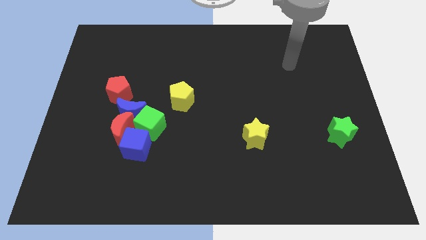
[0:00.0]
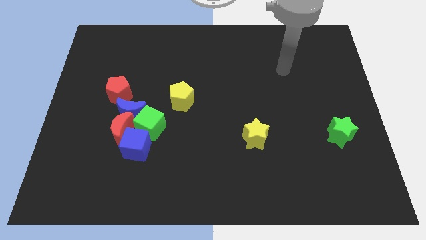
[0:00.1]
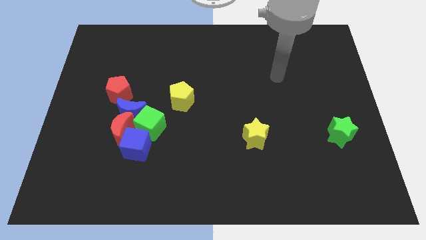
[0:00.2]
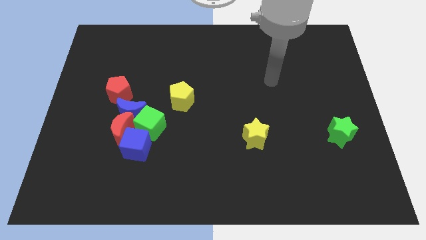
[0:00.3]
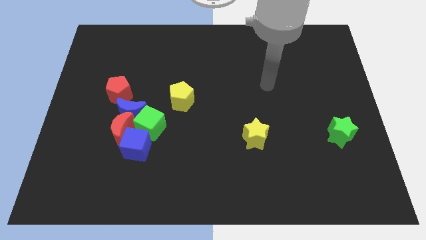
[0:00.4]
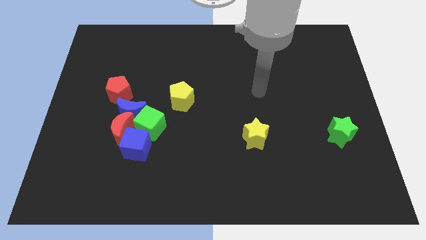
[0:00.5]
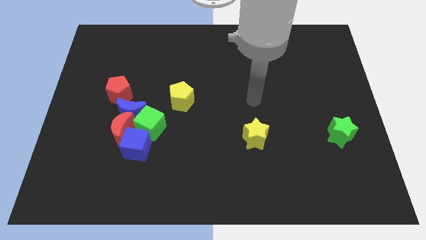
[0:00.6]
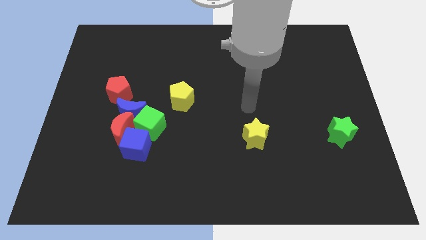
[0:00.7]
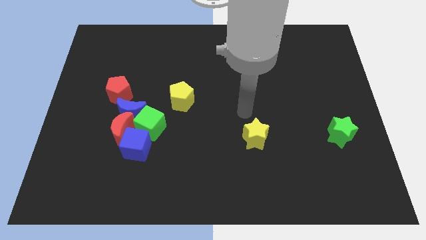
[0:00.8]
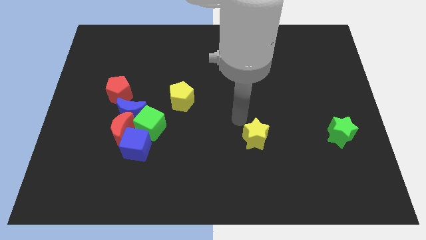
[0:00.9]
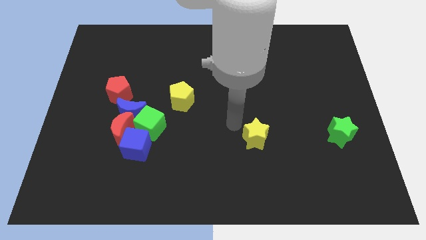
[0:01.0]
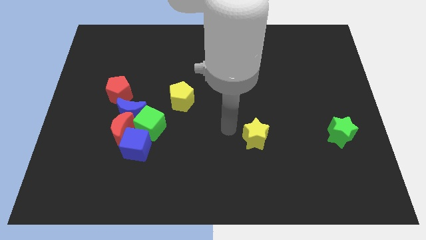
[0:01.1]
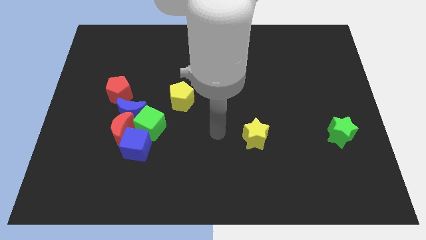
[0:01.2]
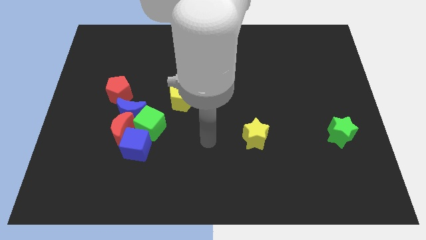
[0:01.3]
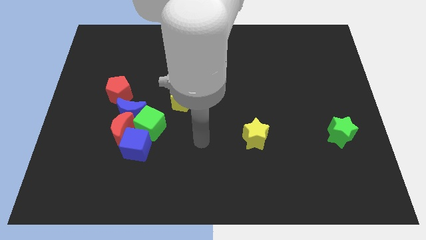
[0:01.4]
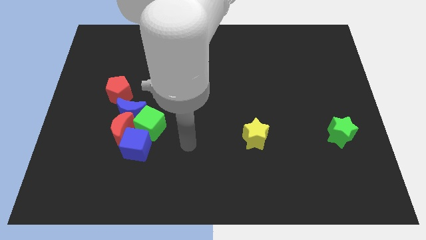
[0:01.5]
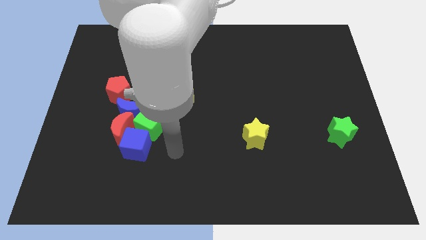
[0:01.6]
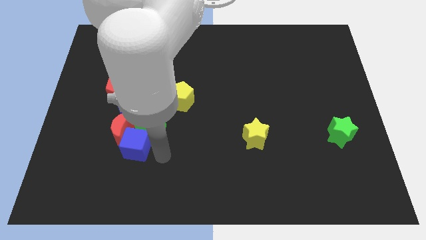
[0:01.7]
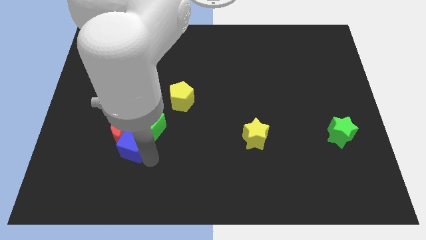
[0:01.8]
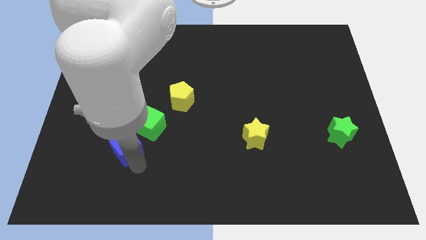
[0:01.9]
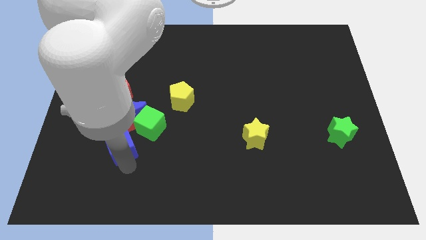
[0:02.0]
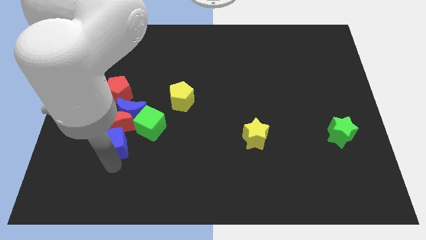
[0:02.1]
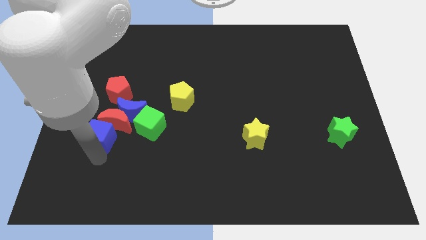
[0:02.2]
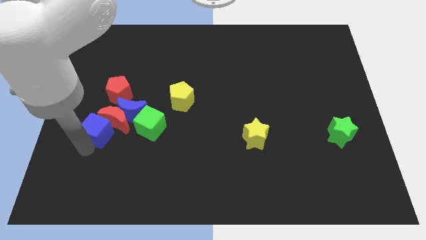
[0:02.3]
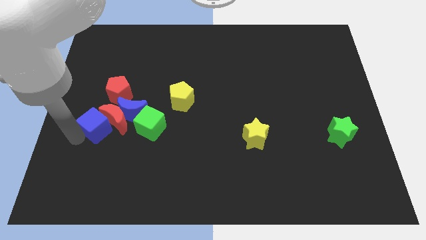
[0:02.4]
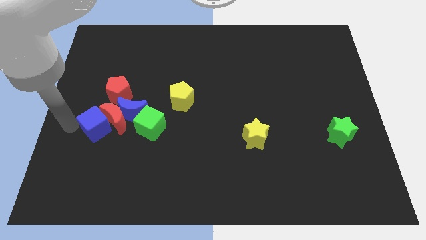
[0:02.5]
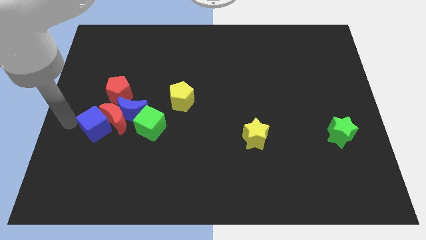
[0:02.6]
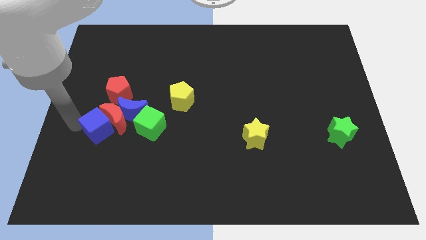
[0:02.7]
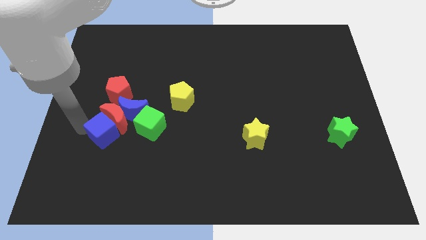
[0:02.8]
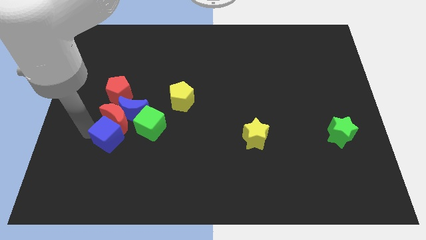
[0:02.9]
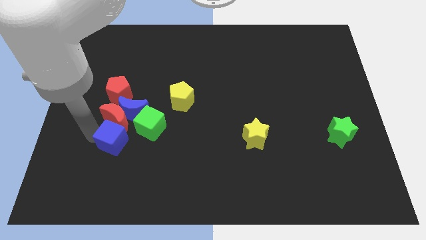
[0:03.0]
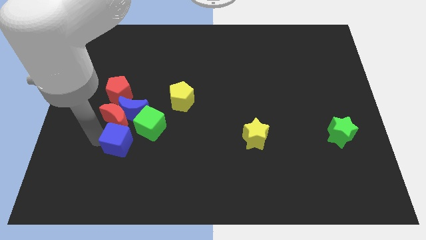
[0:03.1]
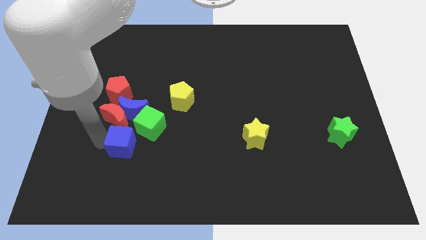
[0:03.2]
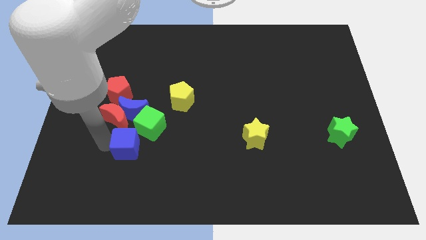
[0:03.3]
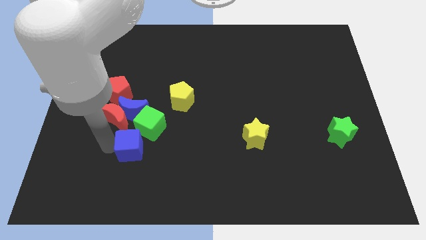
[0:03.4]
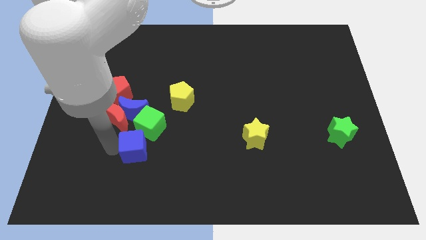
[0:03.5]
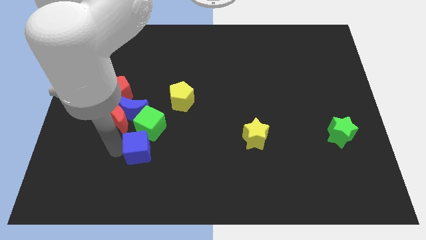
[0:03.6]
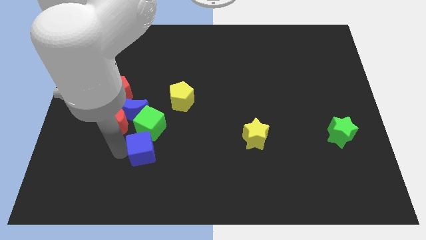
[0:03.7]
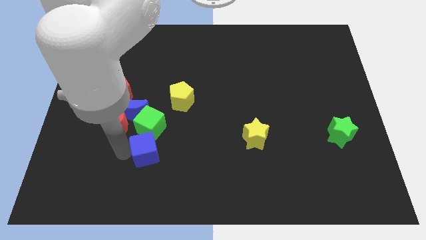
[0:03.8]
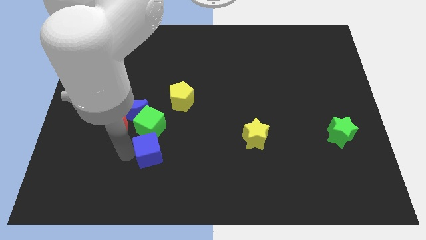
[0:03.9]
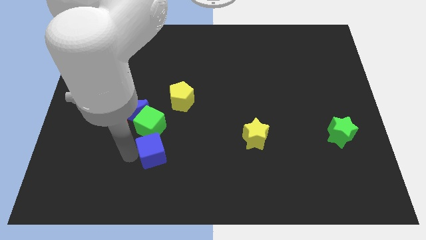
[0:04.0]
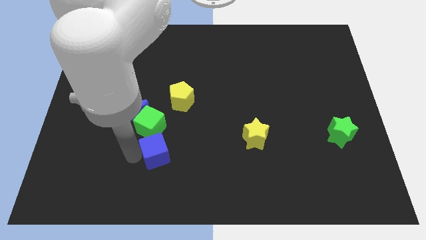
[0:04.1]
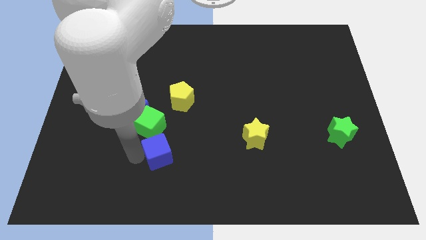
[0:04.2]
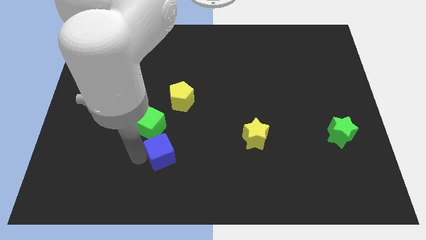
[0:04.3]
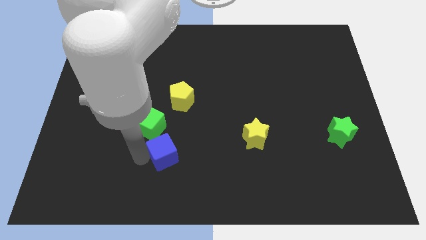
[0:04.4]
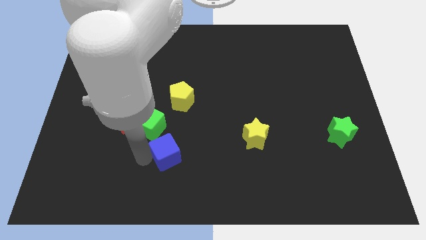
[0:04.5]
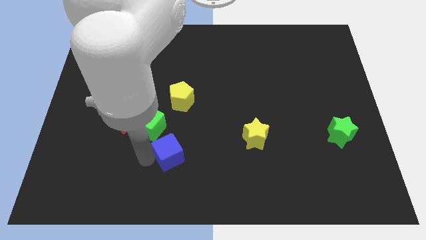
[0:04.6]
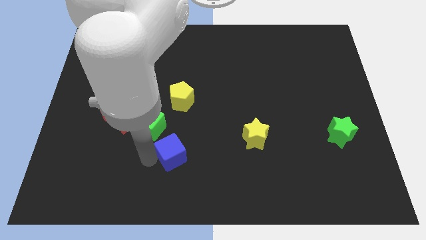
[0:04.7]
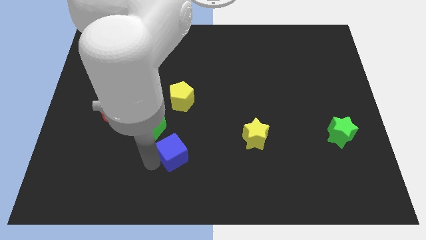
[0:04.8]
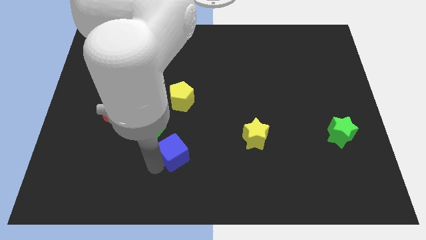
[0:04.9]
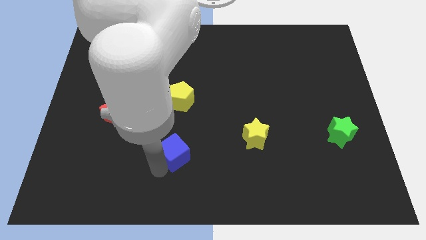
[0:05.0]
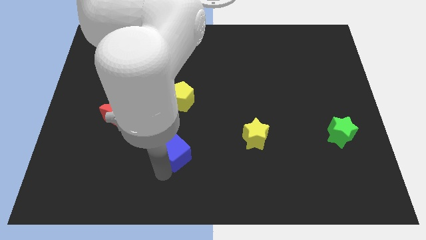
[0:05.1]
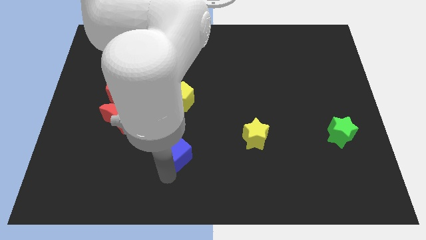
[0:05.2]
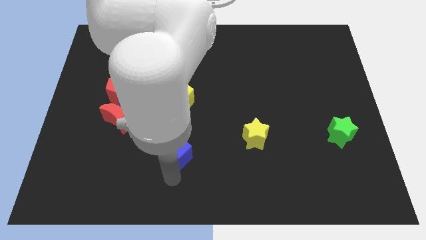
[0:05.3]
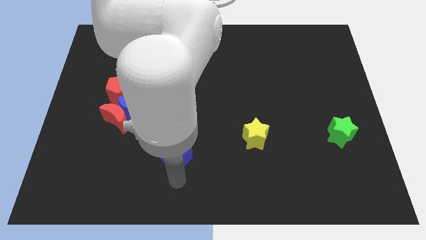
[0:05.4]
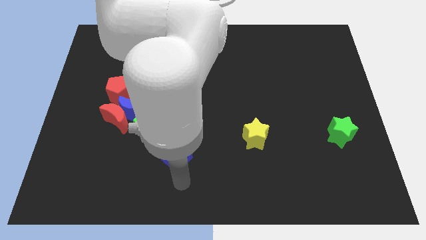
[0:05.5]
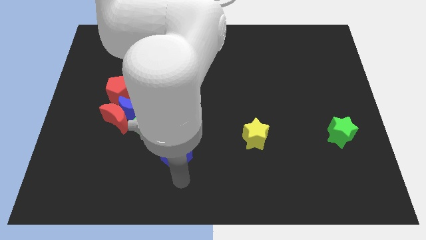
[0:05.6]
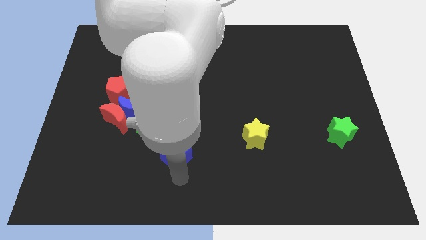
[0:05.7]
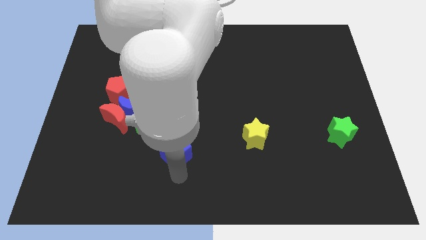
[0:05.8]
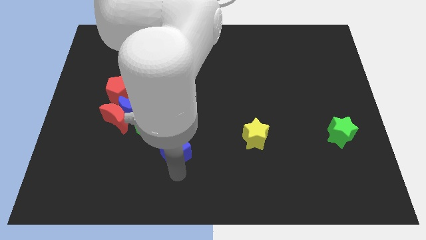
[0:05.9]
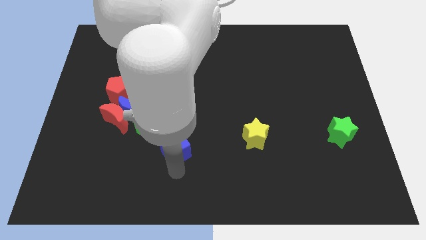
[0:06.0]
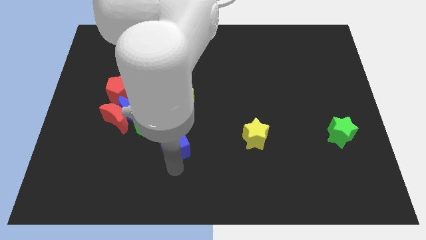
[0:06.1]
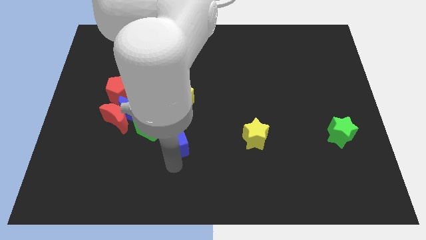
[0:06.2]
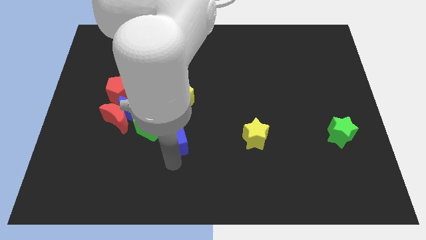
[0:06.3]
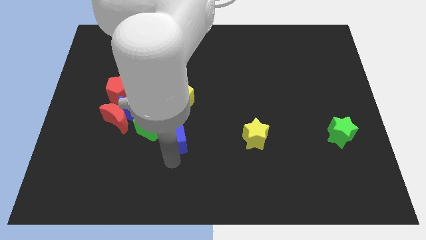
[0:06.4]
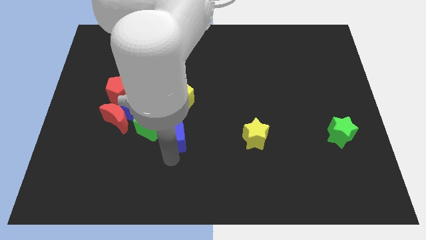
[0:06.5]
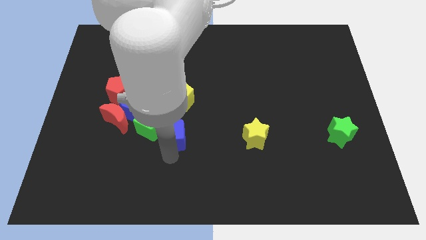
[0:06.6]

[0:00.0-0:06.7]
move the blue cube a little upwards and then to the right

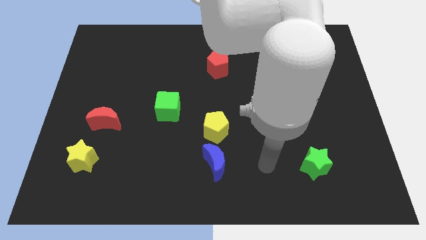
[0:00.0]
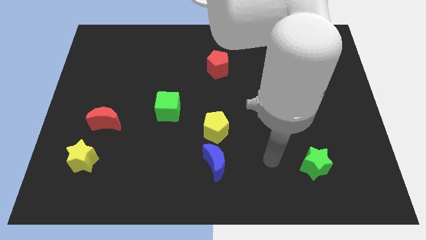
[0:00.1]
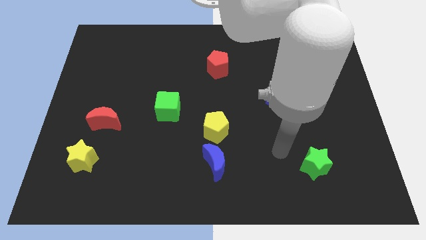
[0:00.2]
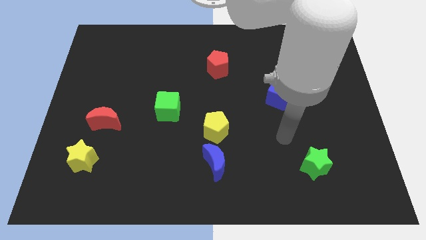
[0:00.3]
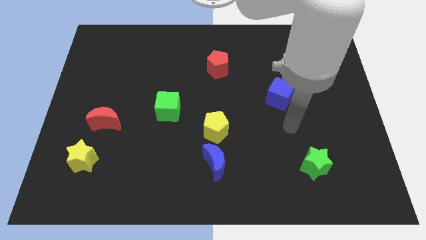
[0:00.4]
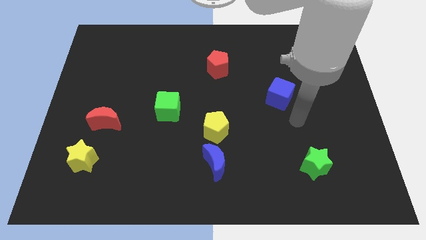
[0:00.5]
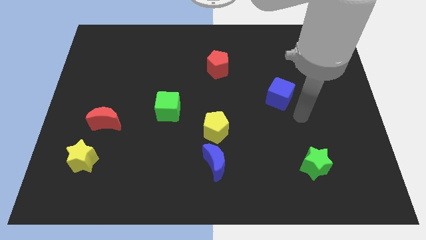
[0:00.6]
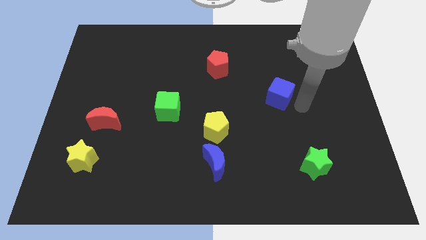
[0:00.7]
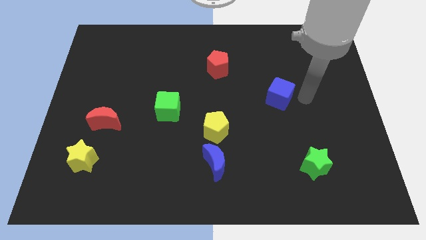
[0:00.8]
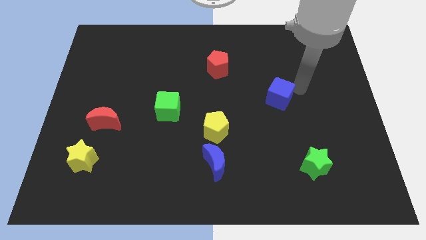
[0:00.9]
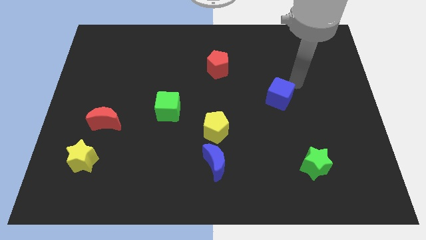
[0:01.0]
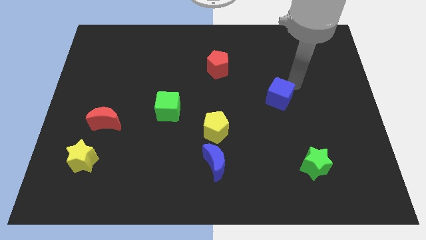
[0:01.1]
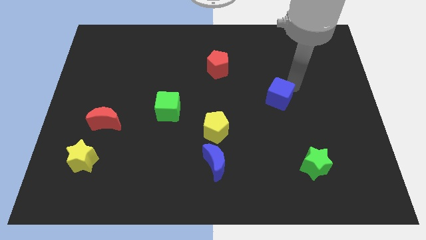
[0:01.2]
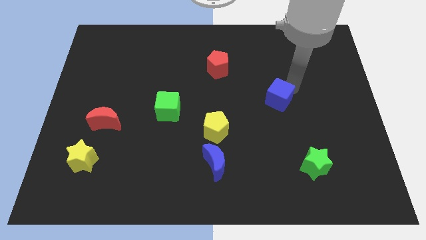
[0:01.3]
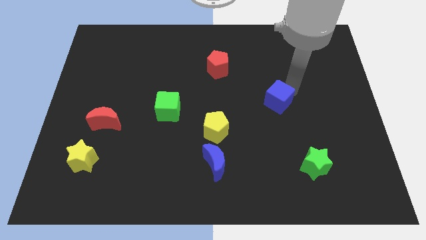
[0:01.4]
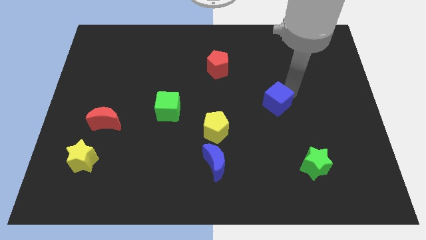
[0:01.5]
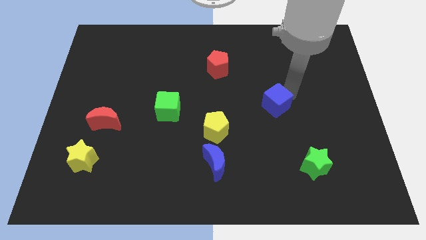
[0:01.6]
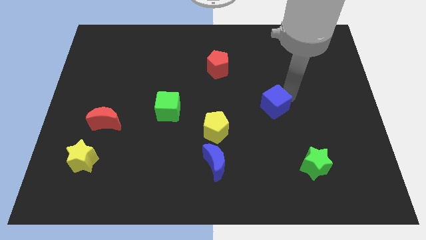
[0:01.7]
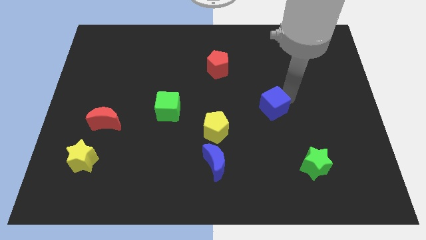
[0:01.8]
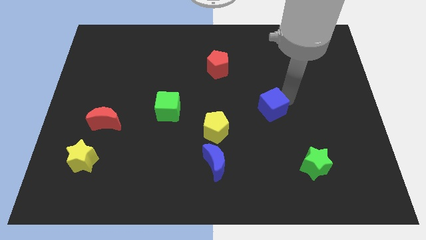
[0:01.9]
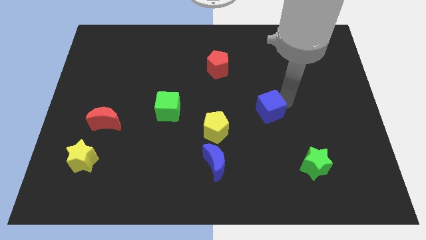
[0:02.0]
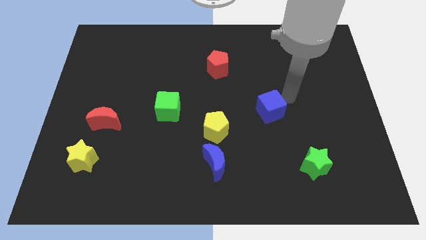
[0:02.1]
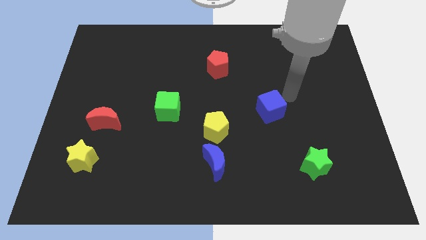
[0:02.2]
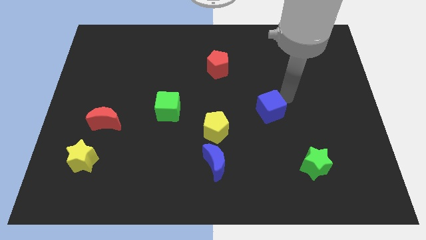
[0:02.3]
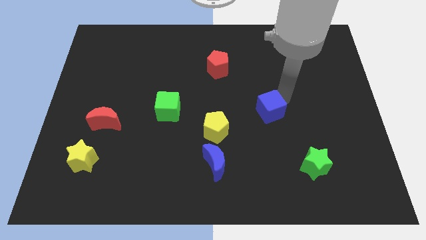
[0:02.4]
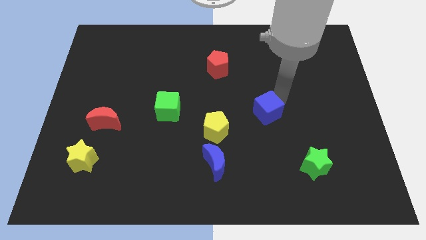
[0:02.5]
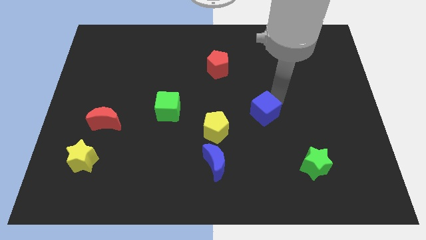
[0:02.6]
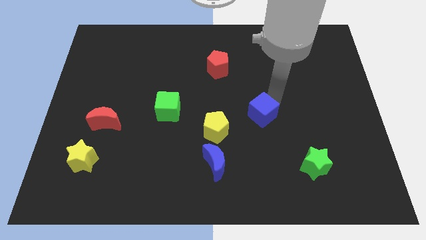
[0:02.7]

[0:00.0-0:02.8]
push the blue cube downwards and to the left diagonally somewhat
